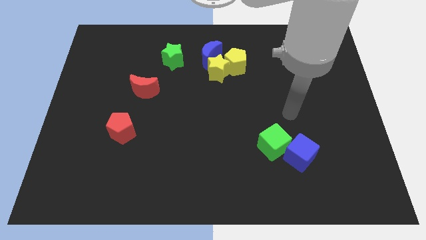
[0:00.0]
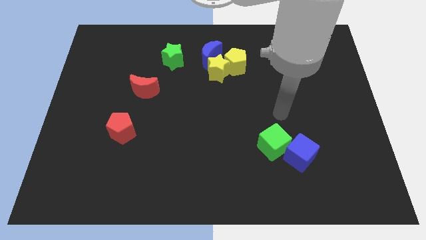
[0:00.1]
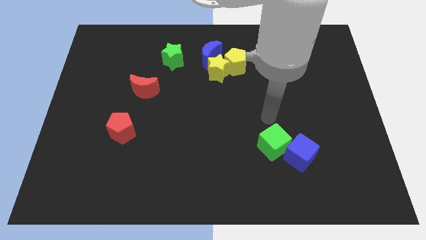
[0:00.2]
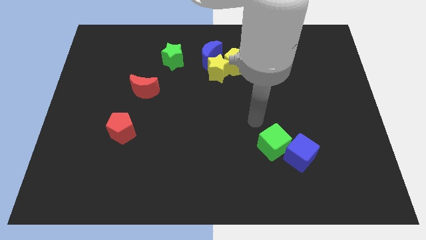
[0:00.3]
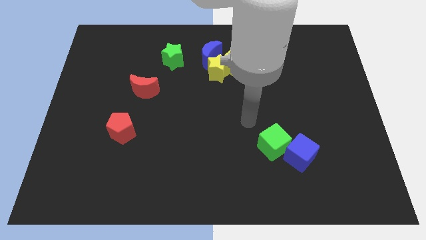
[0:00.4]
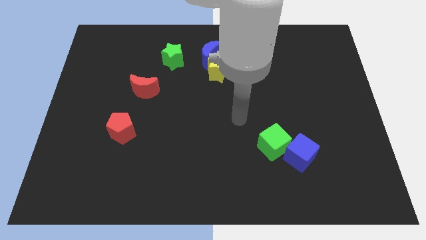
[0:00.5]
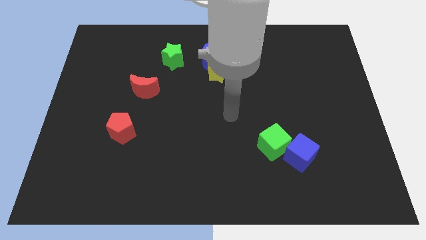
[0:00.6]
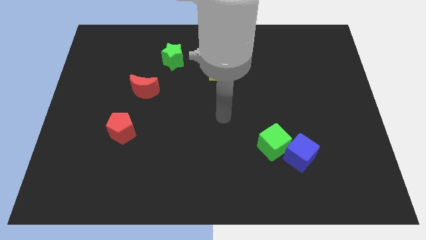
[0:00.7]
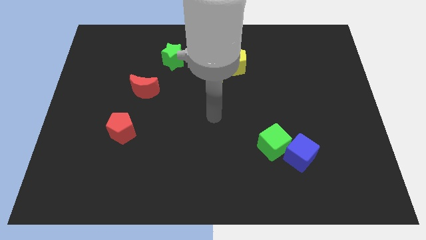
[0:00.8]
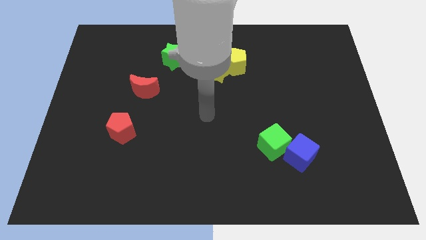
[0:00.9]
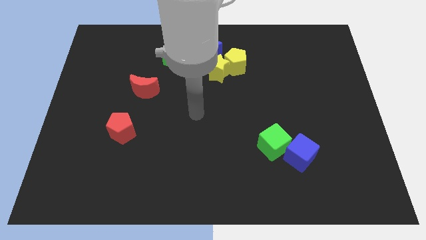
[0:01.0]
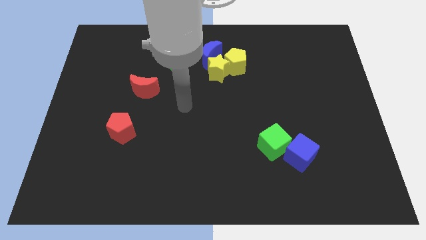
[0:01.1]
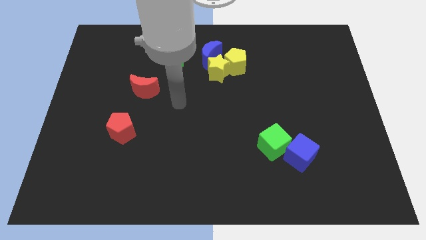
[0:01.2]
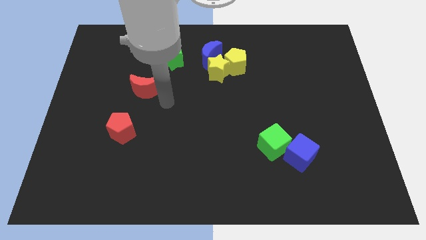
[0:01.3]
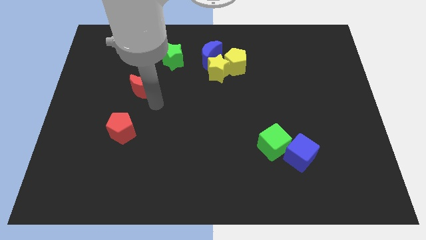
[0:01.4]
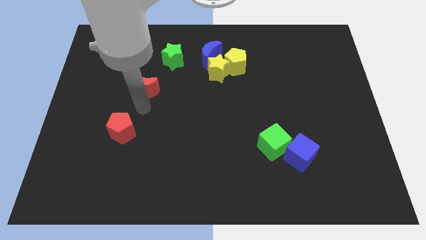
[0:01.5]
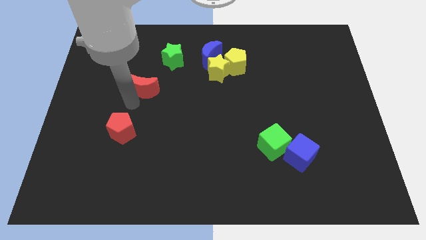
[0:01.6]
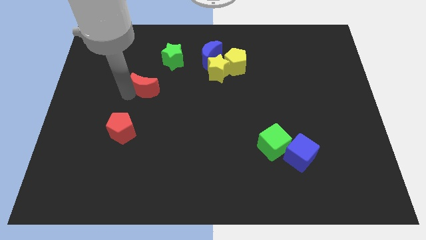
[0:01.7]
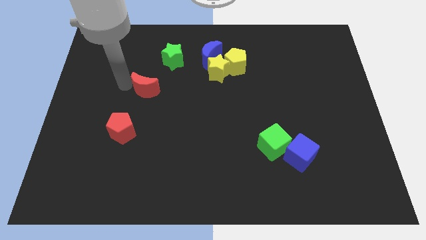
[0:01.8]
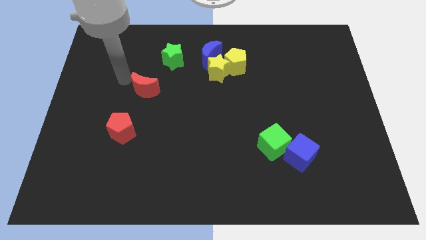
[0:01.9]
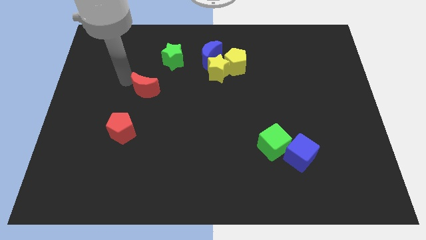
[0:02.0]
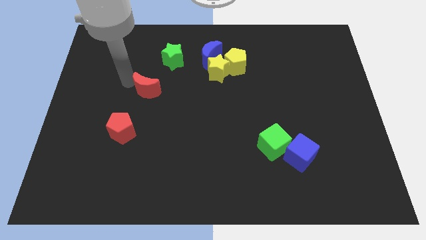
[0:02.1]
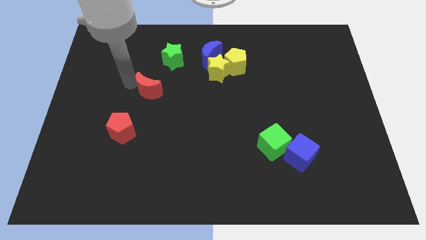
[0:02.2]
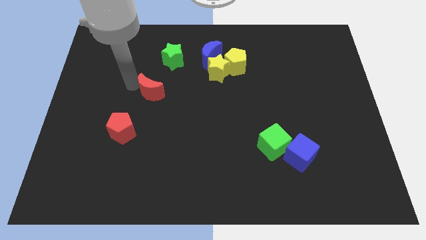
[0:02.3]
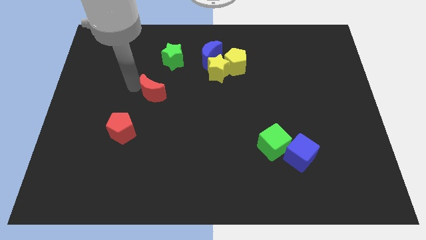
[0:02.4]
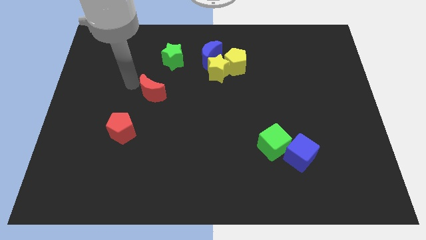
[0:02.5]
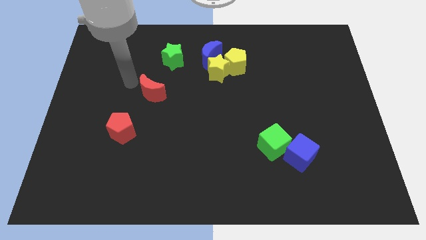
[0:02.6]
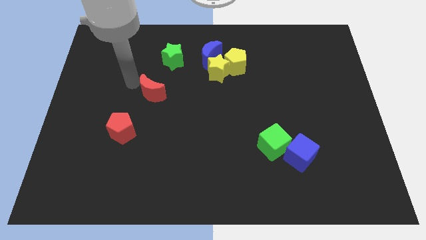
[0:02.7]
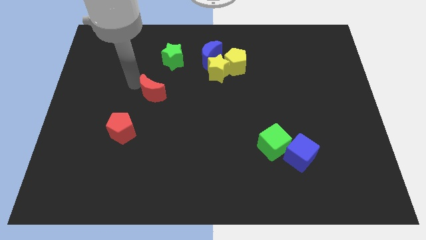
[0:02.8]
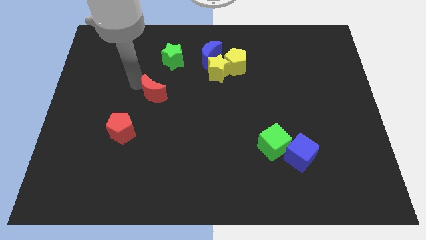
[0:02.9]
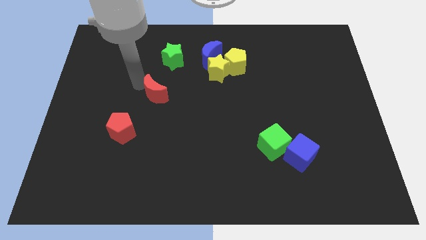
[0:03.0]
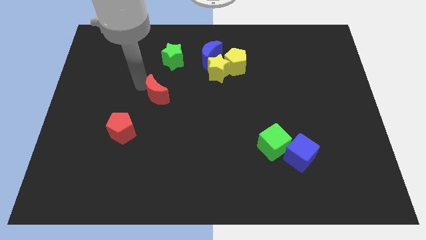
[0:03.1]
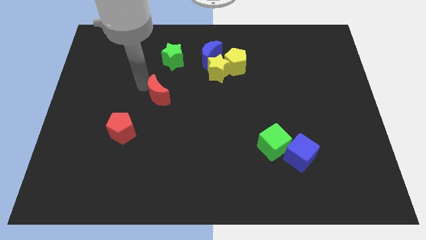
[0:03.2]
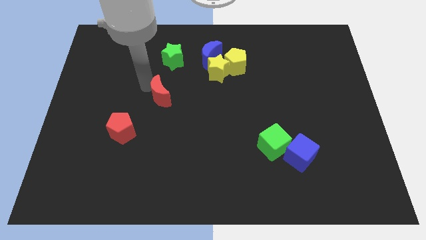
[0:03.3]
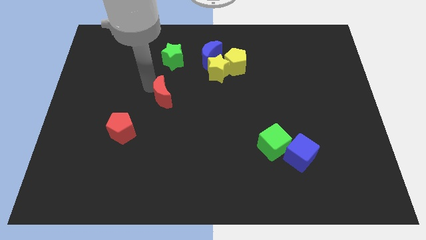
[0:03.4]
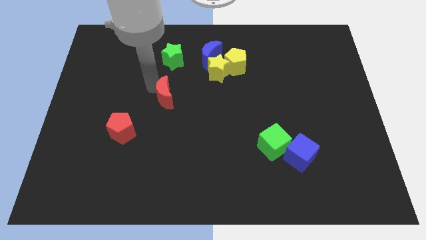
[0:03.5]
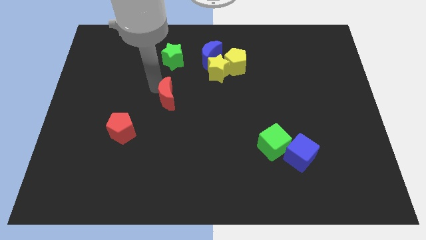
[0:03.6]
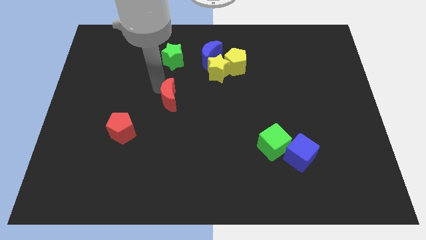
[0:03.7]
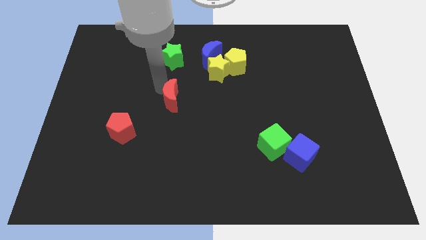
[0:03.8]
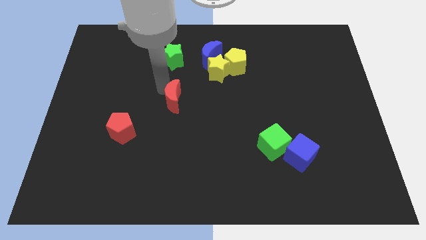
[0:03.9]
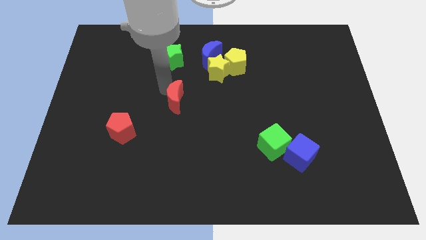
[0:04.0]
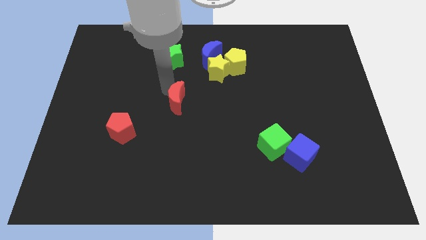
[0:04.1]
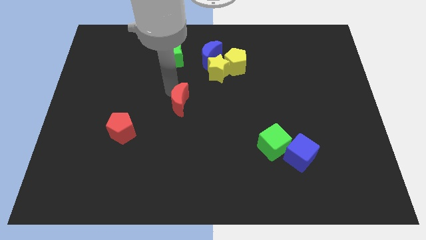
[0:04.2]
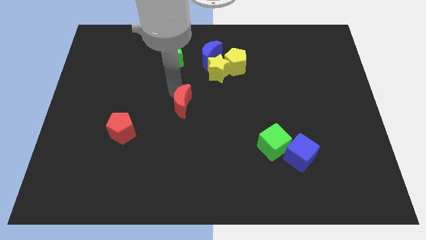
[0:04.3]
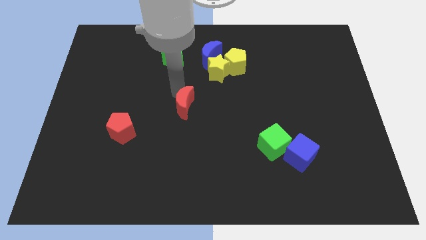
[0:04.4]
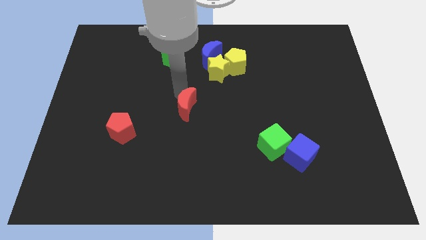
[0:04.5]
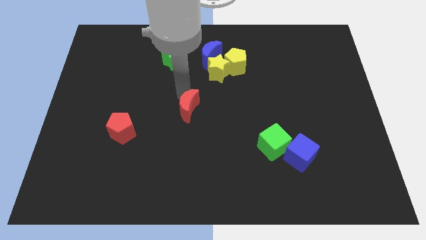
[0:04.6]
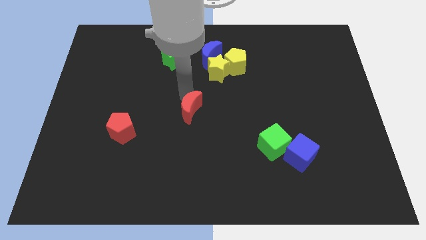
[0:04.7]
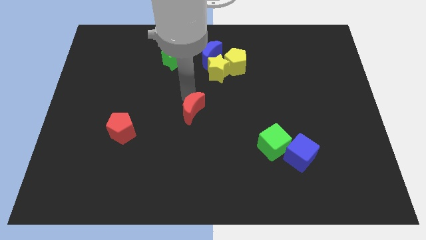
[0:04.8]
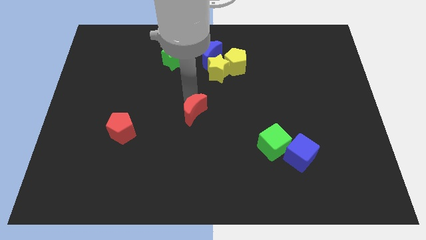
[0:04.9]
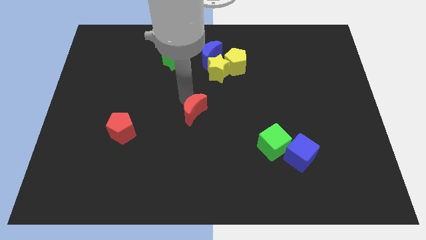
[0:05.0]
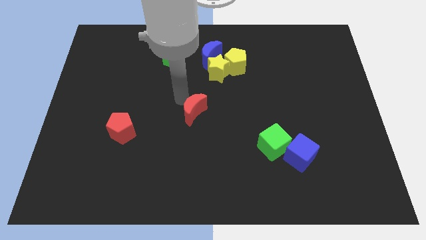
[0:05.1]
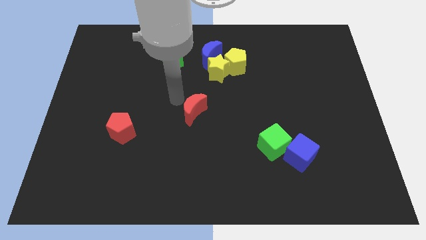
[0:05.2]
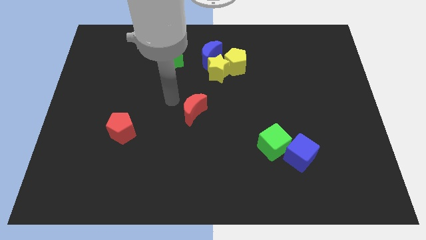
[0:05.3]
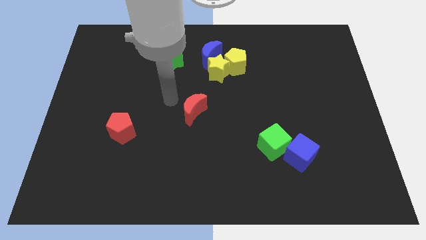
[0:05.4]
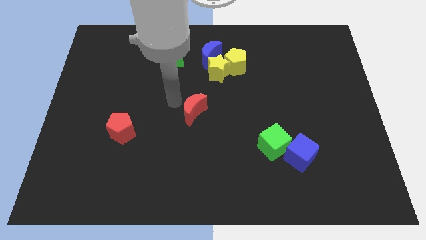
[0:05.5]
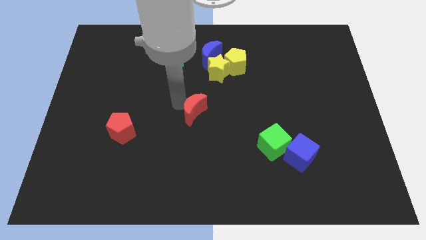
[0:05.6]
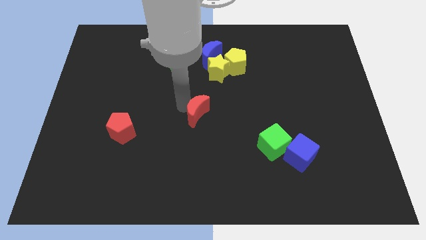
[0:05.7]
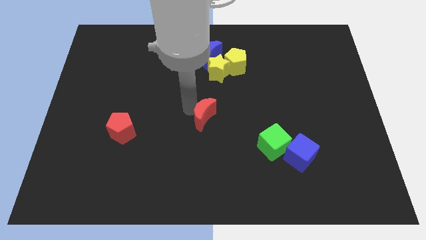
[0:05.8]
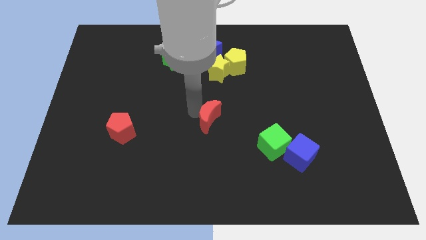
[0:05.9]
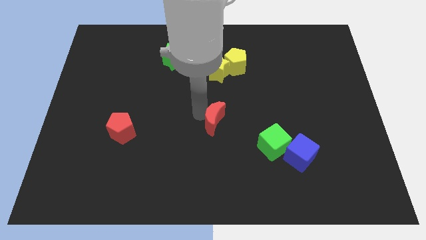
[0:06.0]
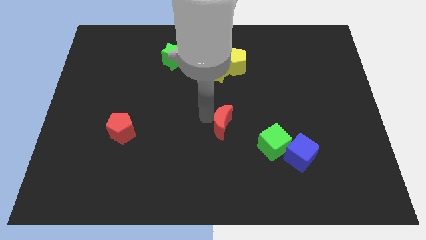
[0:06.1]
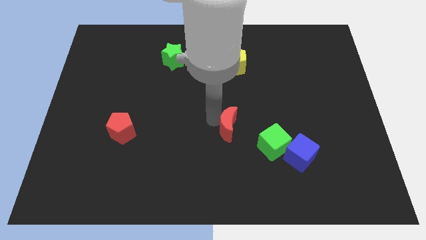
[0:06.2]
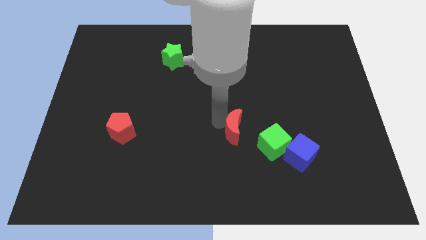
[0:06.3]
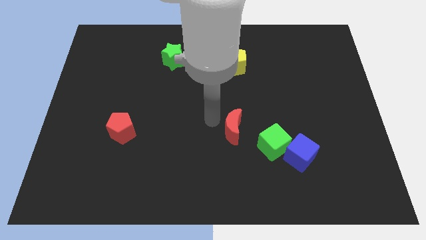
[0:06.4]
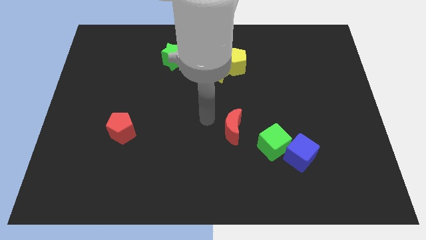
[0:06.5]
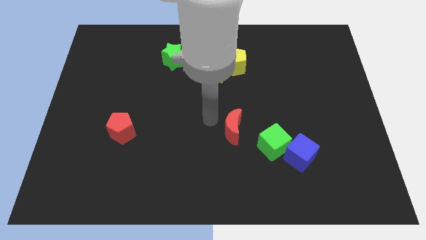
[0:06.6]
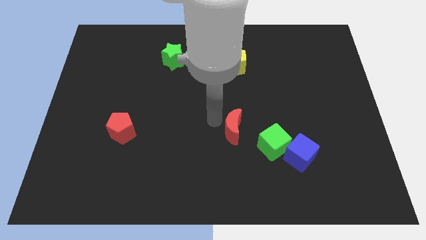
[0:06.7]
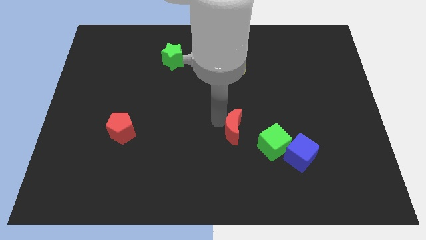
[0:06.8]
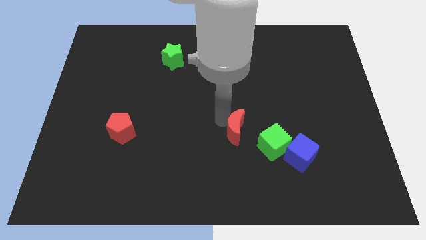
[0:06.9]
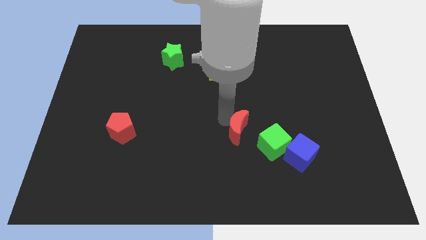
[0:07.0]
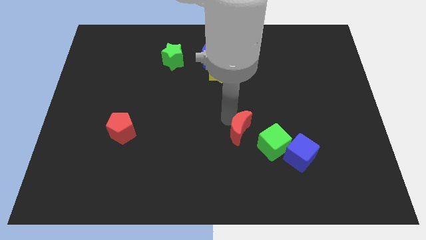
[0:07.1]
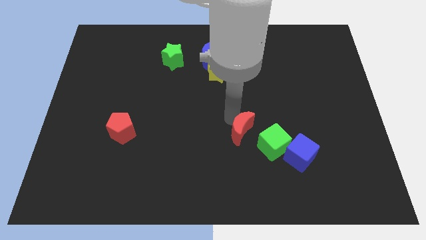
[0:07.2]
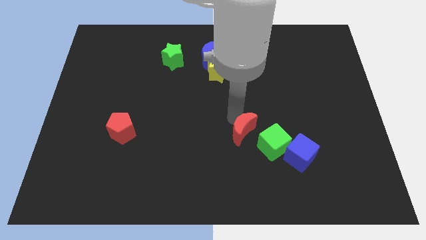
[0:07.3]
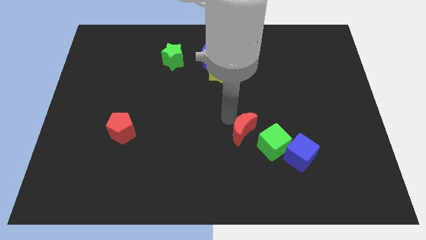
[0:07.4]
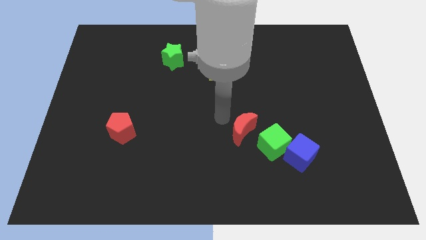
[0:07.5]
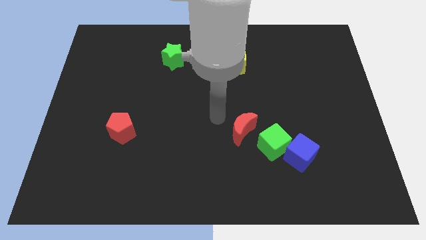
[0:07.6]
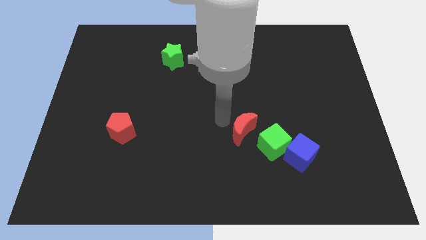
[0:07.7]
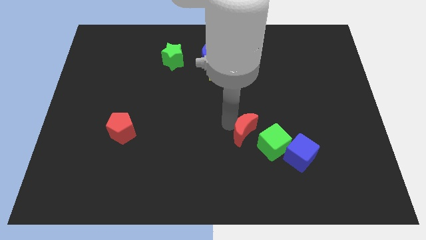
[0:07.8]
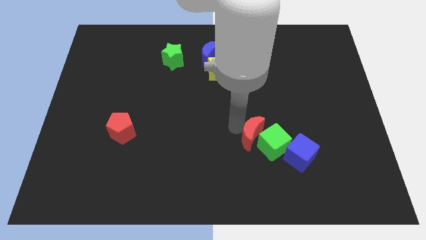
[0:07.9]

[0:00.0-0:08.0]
slide the red moon close to the green cube

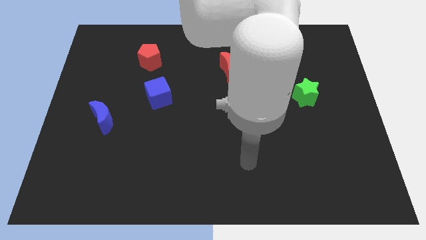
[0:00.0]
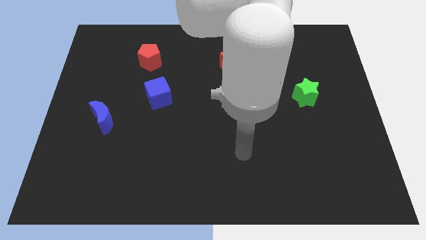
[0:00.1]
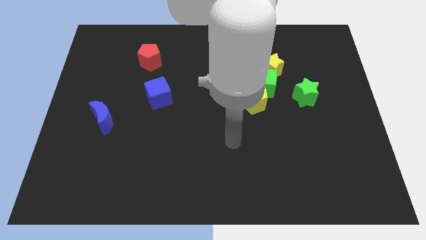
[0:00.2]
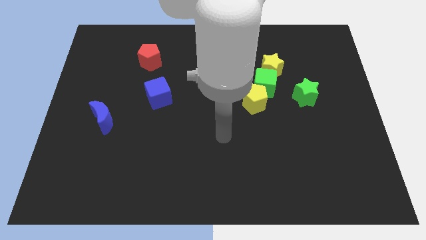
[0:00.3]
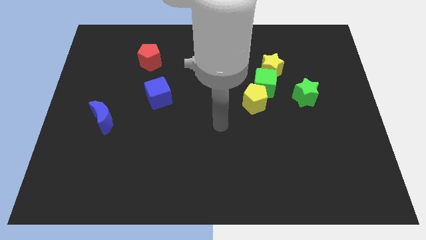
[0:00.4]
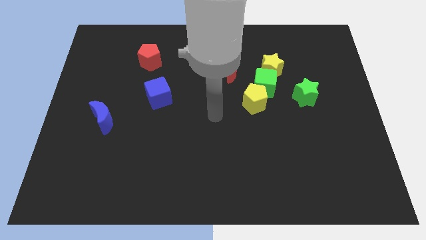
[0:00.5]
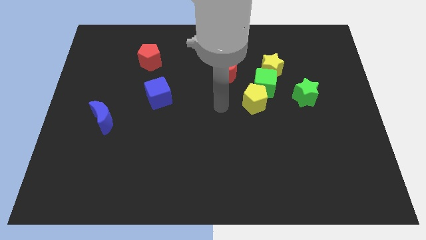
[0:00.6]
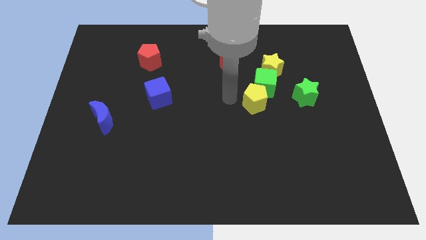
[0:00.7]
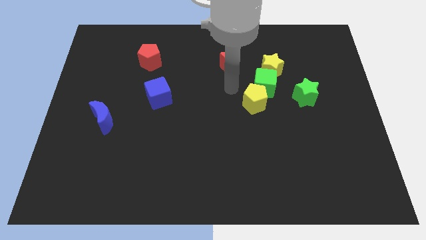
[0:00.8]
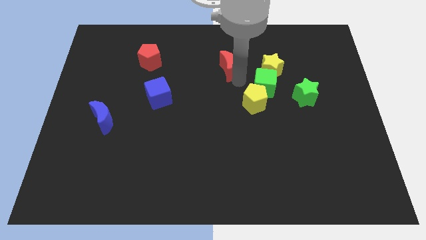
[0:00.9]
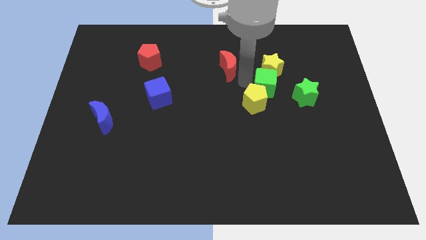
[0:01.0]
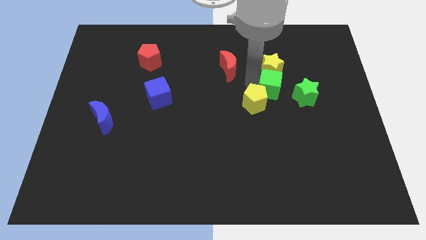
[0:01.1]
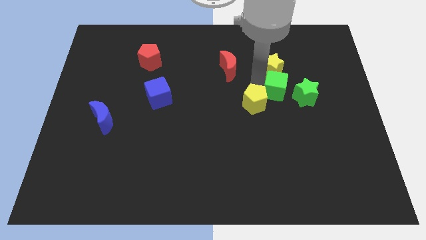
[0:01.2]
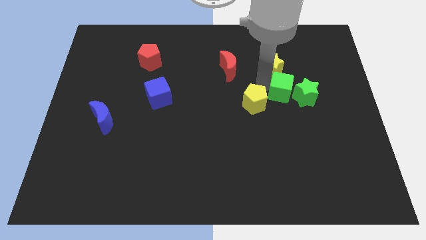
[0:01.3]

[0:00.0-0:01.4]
move the green cube next to the green star
